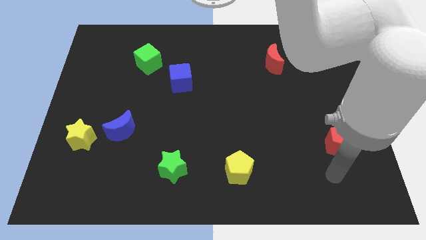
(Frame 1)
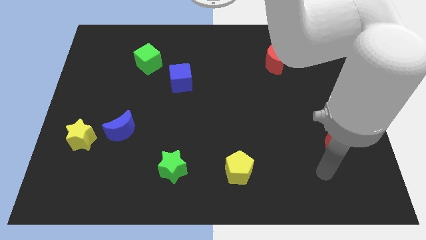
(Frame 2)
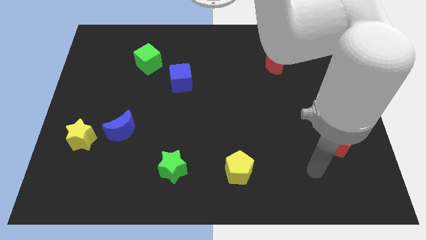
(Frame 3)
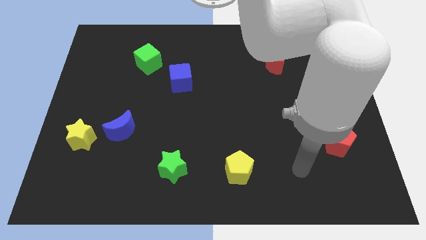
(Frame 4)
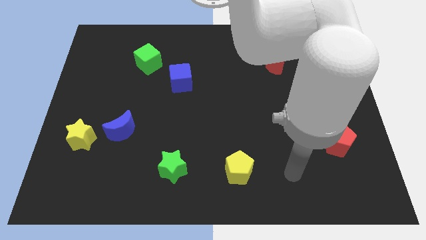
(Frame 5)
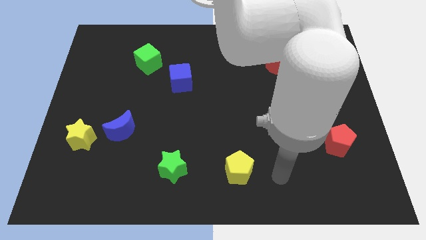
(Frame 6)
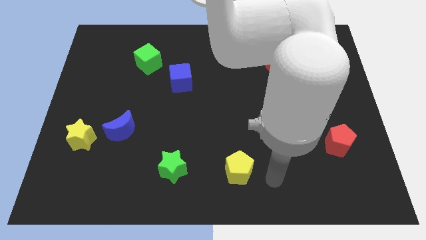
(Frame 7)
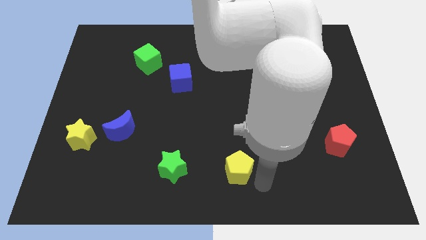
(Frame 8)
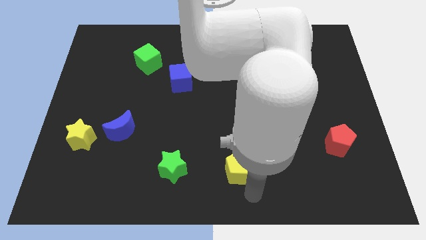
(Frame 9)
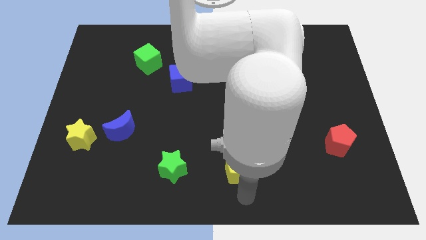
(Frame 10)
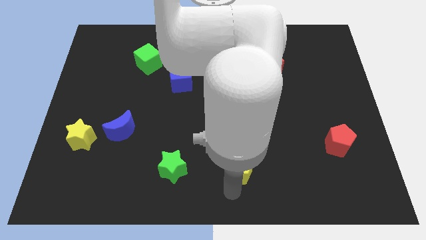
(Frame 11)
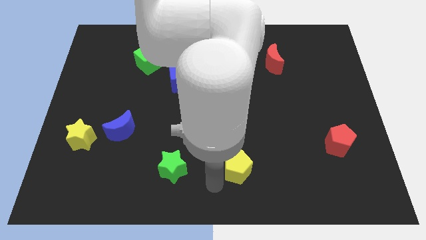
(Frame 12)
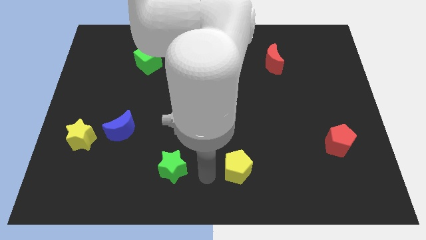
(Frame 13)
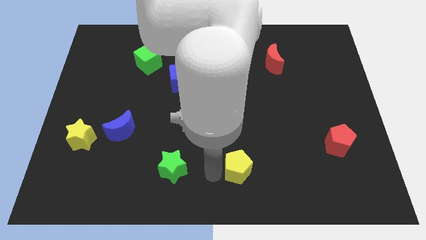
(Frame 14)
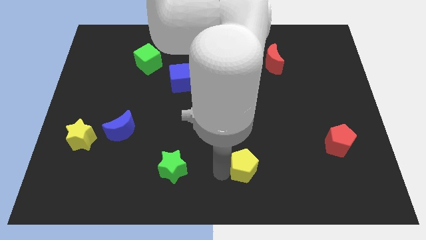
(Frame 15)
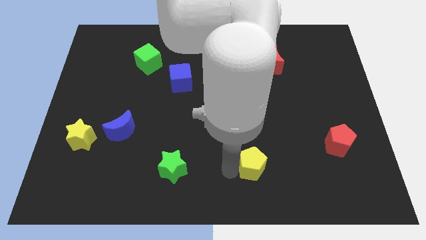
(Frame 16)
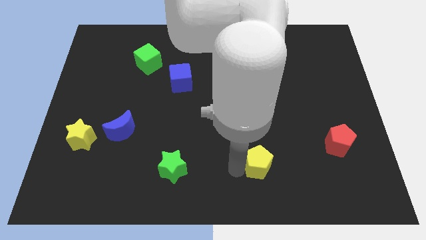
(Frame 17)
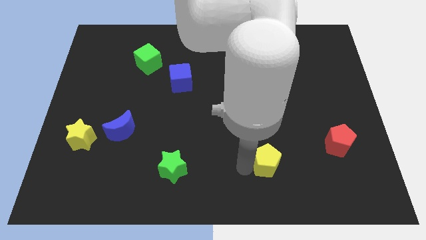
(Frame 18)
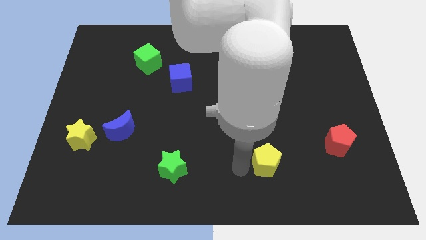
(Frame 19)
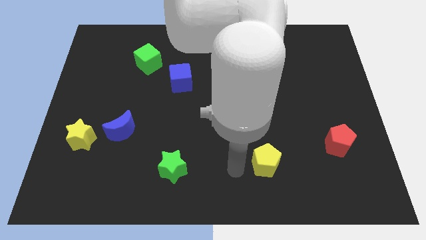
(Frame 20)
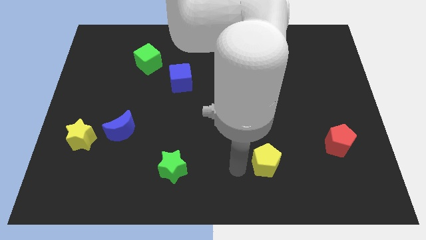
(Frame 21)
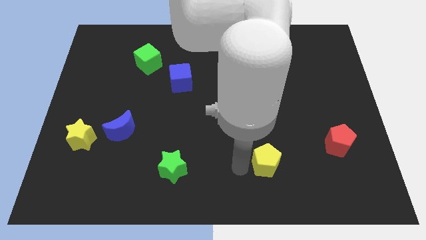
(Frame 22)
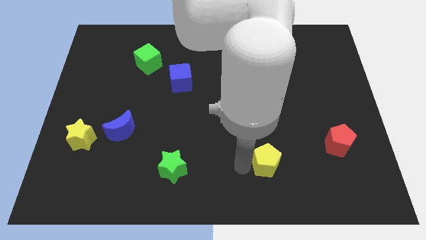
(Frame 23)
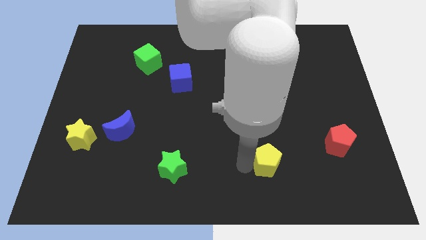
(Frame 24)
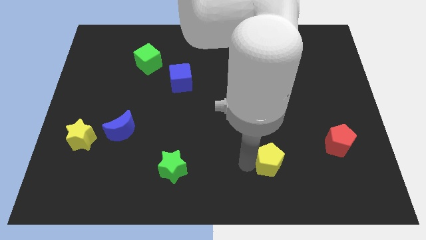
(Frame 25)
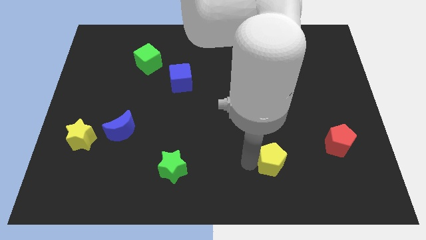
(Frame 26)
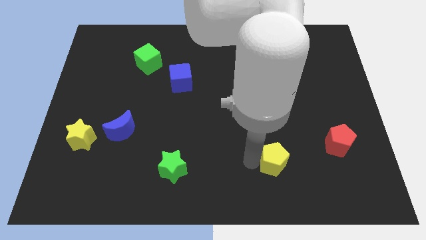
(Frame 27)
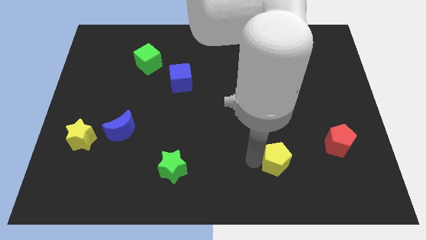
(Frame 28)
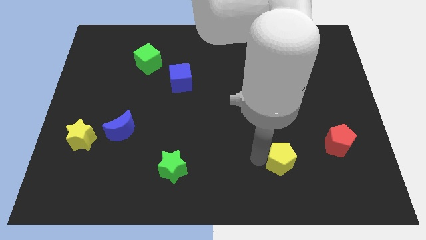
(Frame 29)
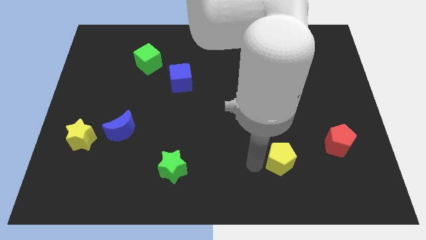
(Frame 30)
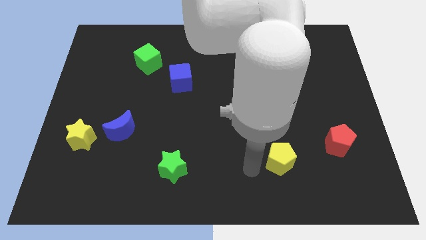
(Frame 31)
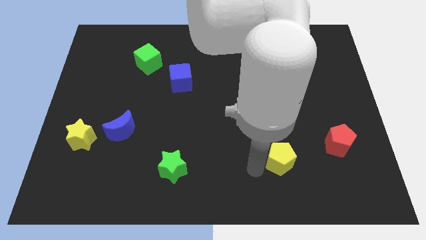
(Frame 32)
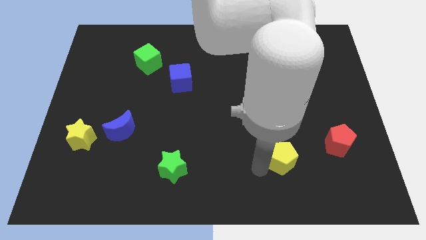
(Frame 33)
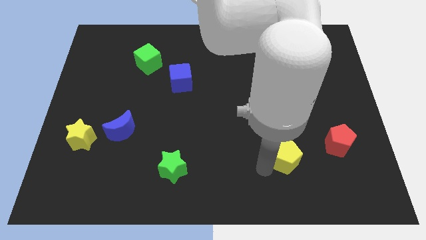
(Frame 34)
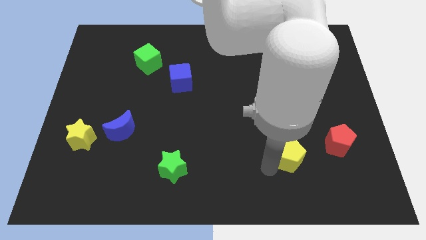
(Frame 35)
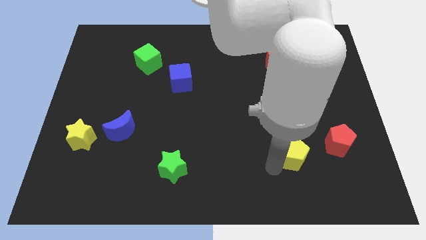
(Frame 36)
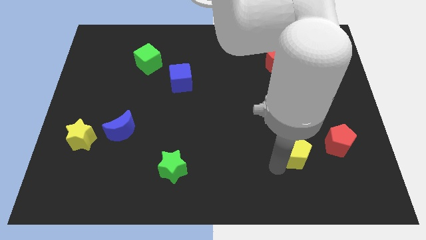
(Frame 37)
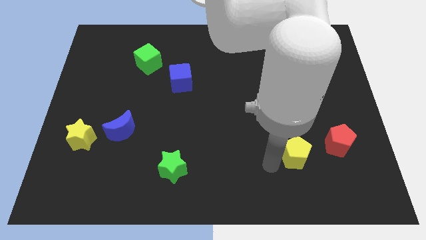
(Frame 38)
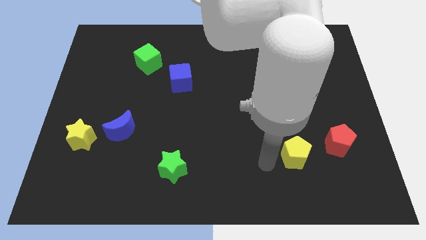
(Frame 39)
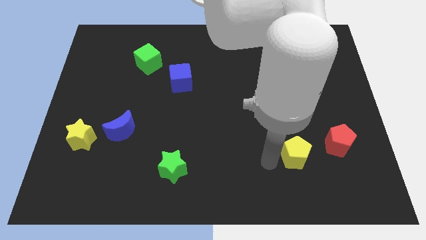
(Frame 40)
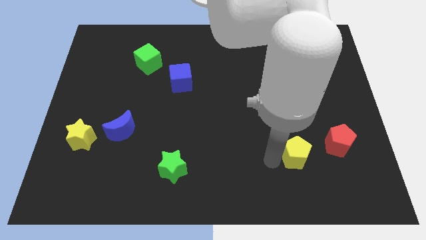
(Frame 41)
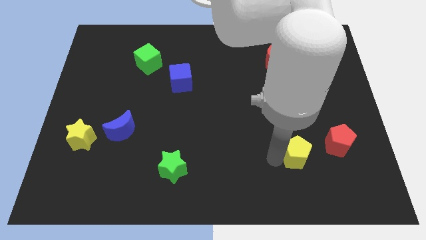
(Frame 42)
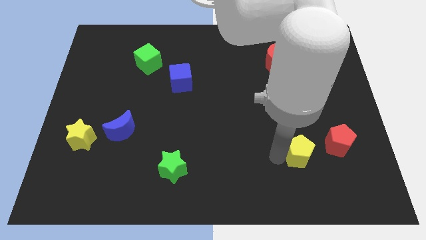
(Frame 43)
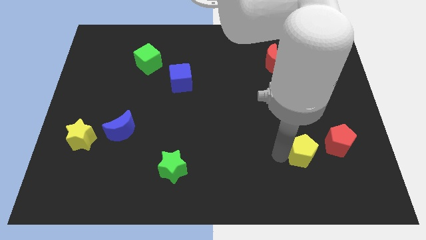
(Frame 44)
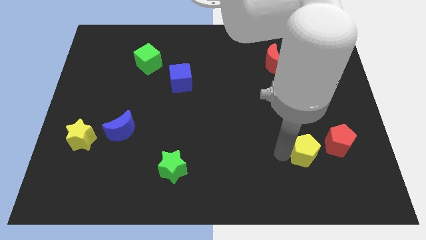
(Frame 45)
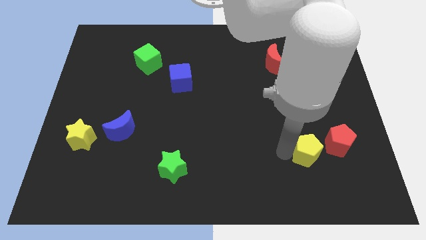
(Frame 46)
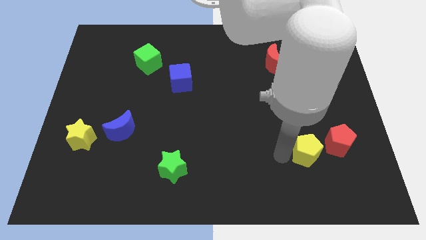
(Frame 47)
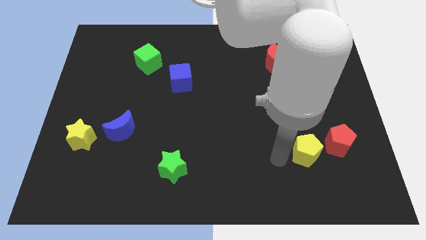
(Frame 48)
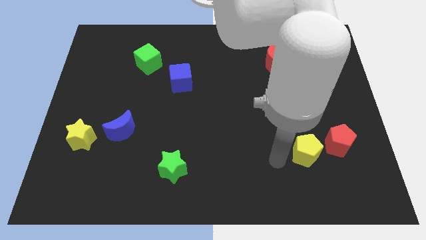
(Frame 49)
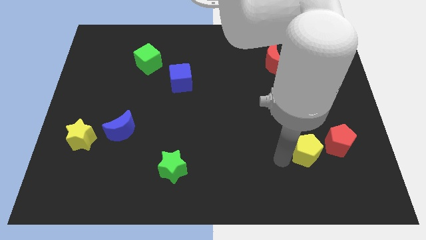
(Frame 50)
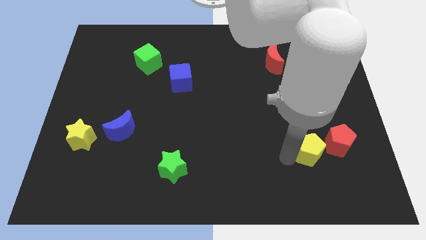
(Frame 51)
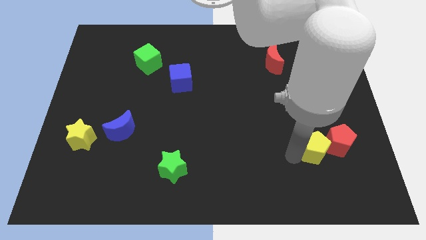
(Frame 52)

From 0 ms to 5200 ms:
put the yellow pentagon close to the red pentagon

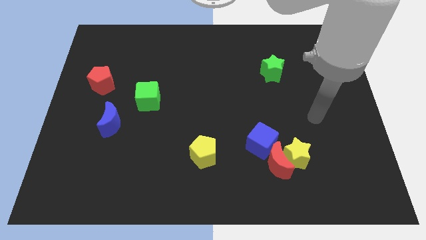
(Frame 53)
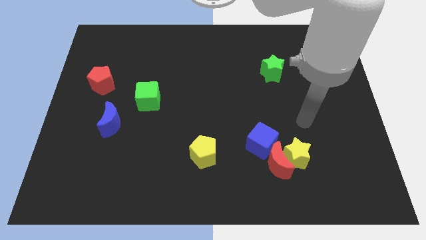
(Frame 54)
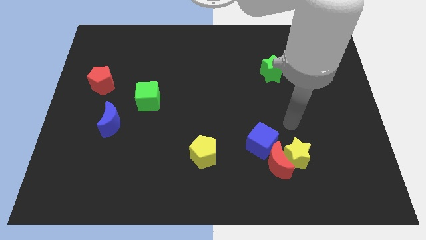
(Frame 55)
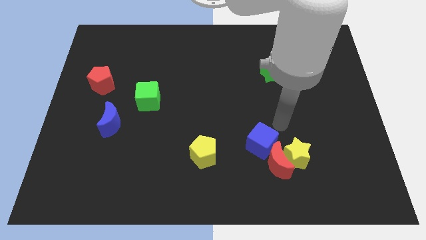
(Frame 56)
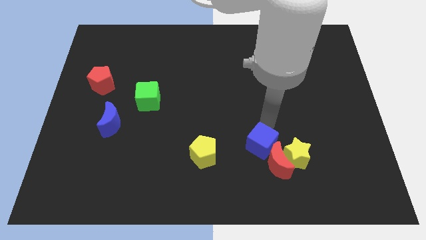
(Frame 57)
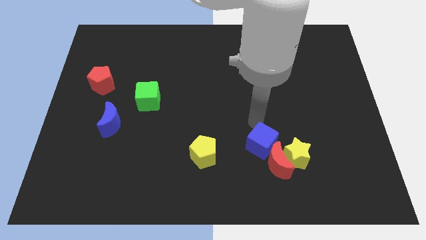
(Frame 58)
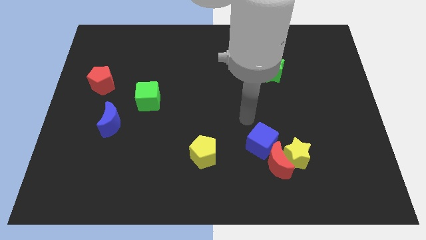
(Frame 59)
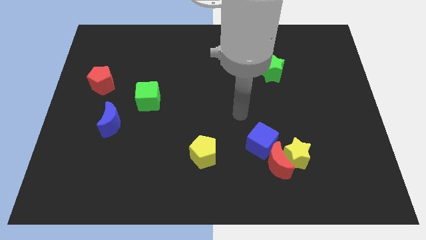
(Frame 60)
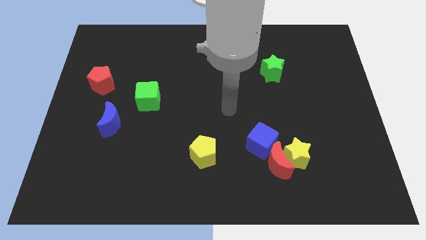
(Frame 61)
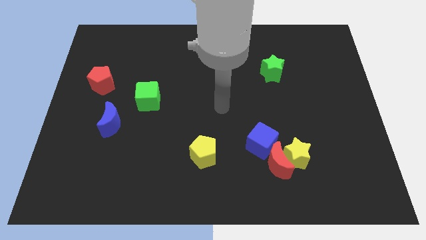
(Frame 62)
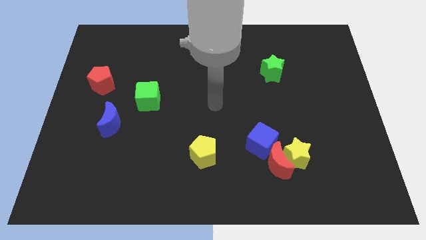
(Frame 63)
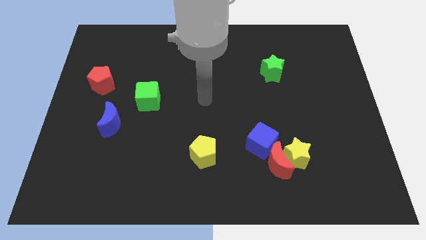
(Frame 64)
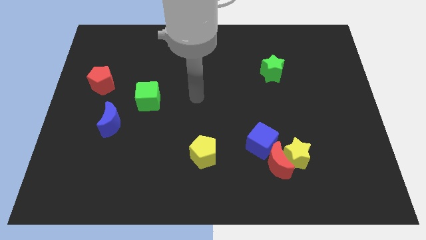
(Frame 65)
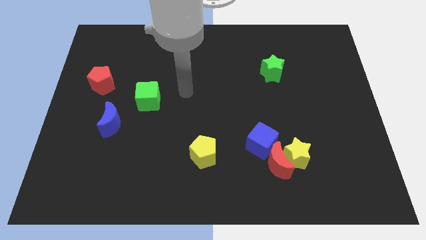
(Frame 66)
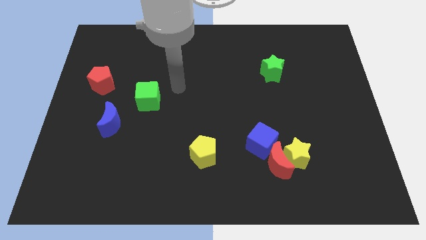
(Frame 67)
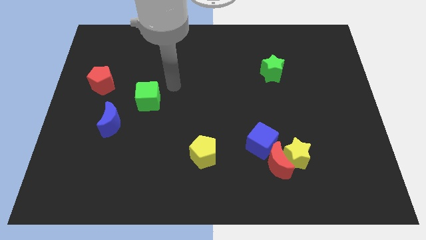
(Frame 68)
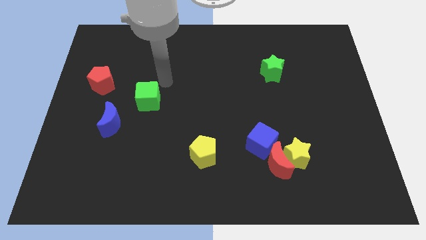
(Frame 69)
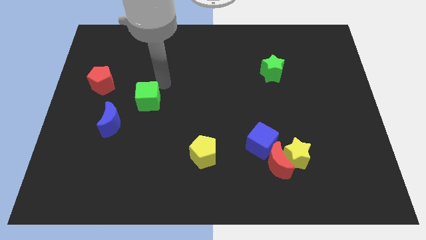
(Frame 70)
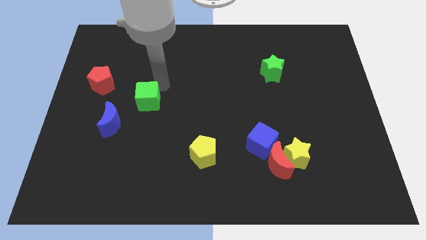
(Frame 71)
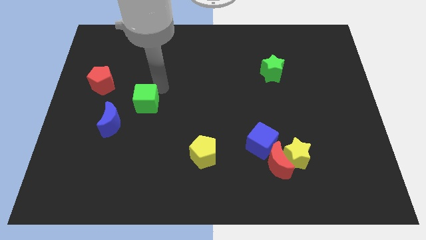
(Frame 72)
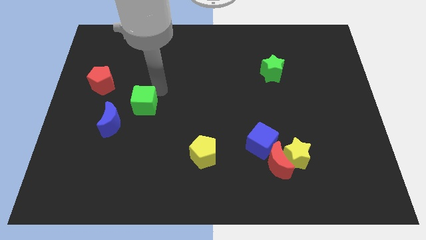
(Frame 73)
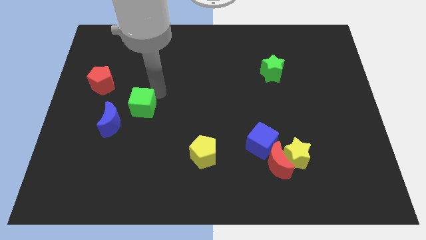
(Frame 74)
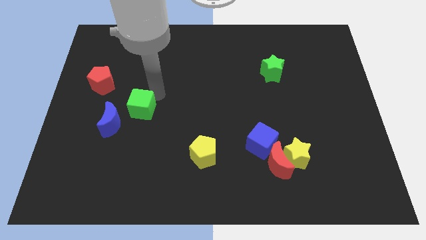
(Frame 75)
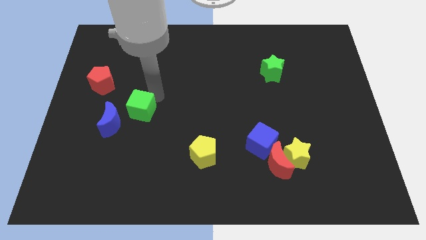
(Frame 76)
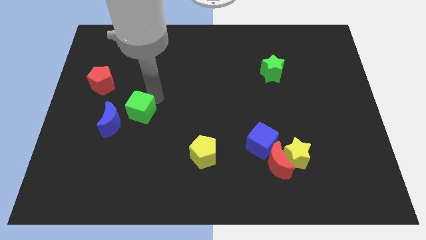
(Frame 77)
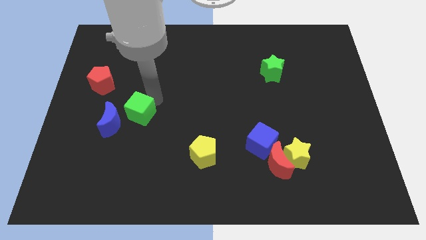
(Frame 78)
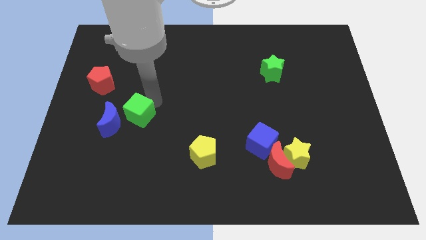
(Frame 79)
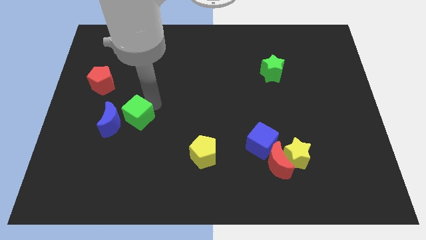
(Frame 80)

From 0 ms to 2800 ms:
push the green cube next to the blue moon
